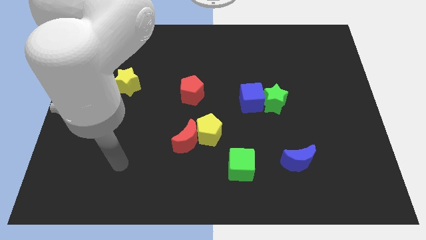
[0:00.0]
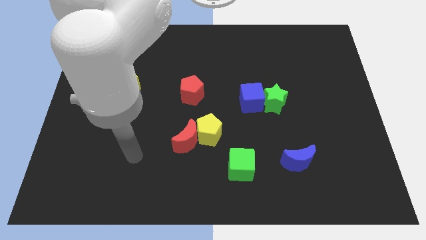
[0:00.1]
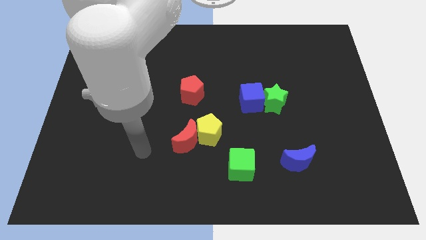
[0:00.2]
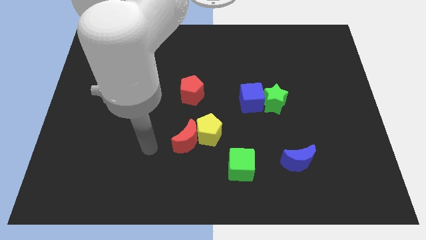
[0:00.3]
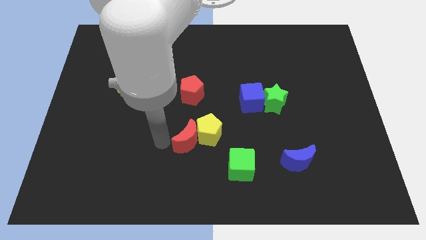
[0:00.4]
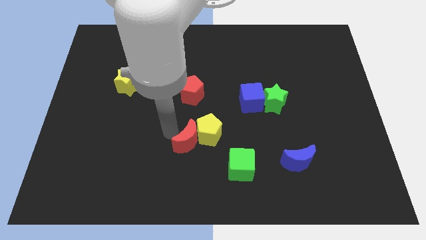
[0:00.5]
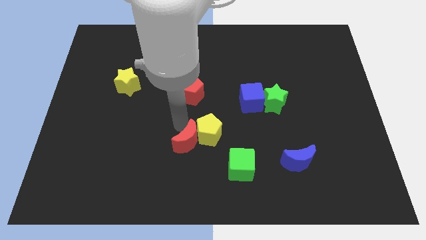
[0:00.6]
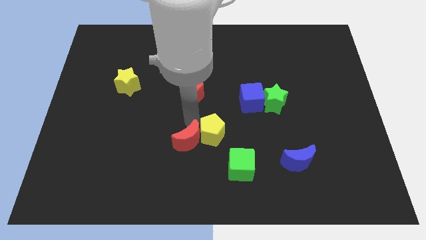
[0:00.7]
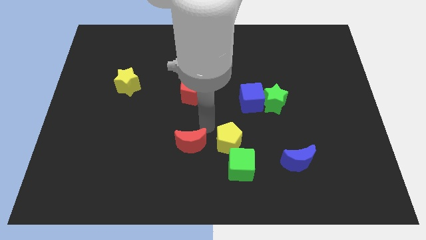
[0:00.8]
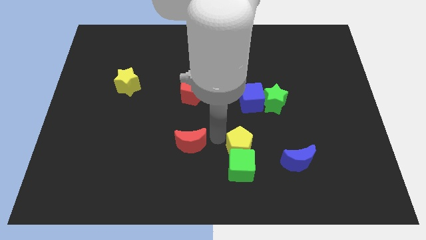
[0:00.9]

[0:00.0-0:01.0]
separate the red moon from the yellow pentagon

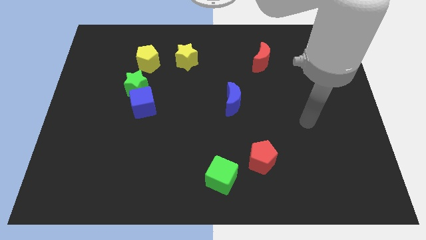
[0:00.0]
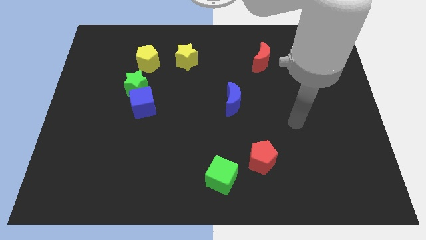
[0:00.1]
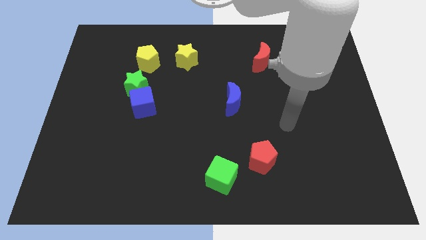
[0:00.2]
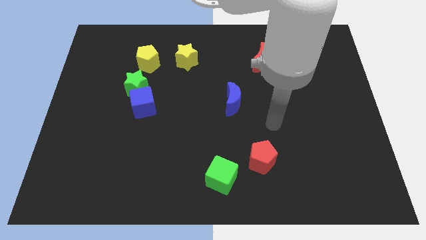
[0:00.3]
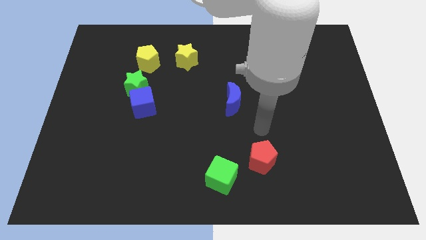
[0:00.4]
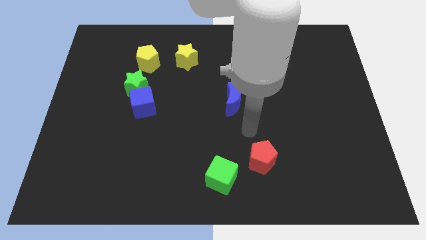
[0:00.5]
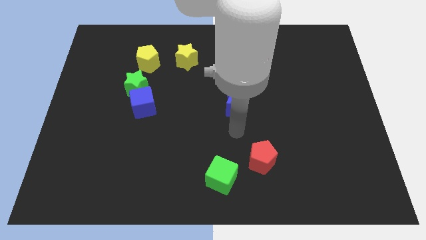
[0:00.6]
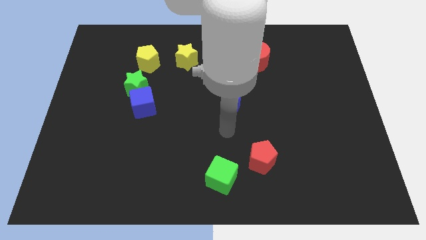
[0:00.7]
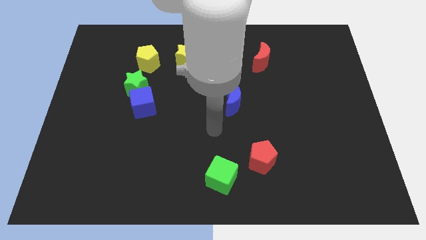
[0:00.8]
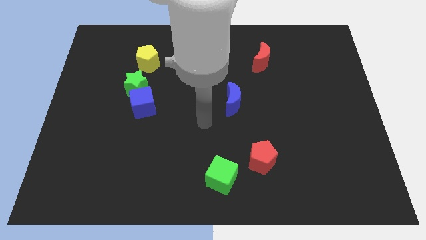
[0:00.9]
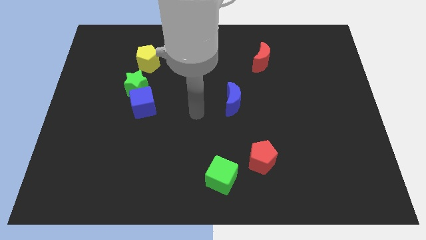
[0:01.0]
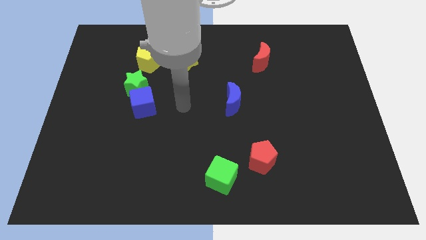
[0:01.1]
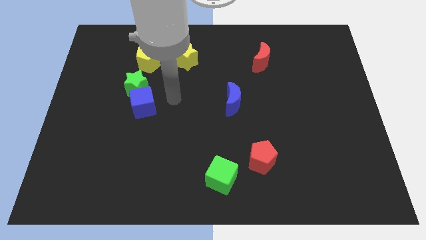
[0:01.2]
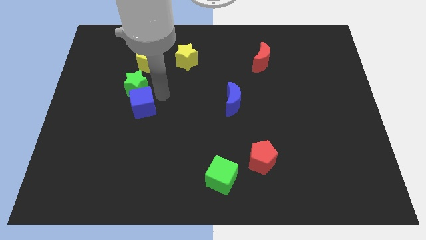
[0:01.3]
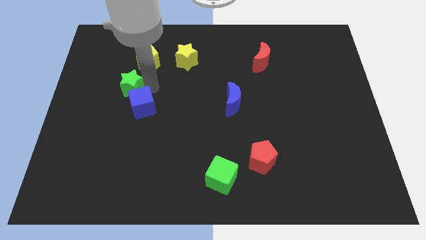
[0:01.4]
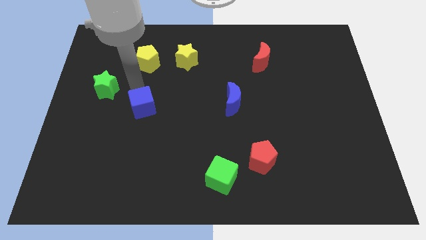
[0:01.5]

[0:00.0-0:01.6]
separate the blue cube from the green star

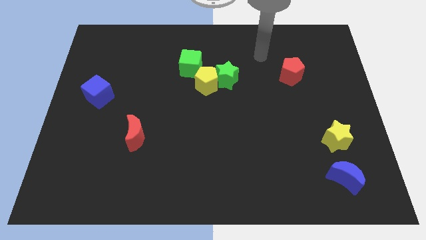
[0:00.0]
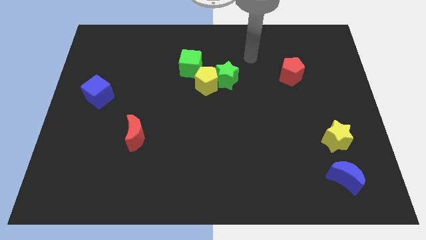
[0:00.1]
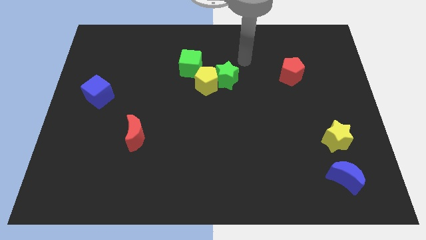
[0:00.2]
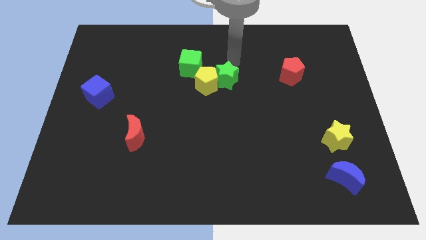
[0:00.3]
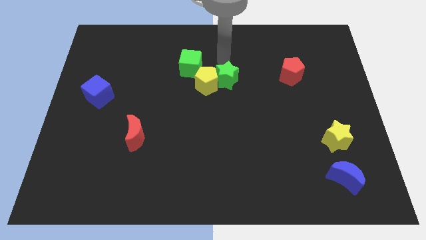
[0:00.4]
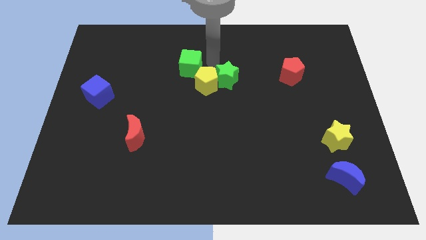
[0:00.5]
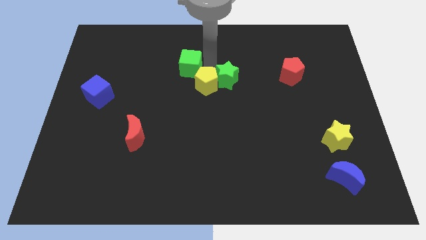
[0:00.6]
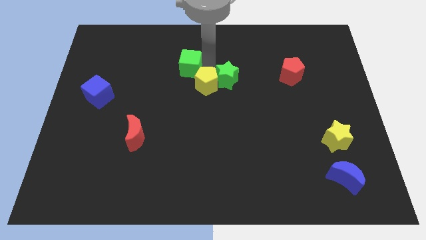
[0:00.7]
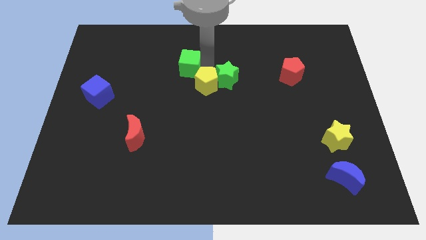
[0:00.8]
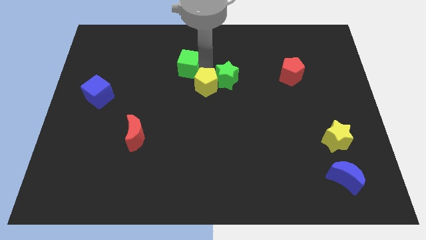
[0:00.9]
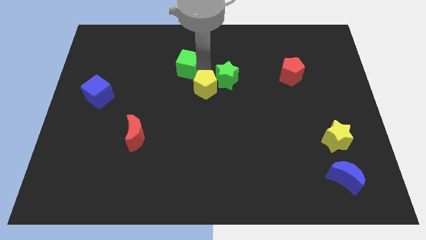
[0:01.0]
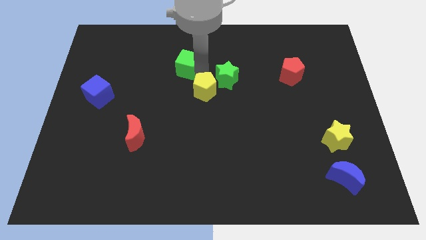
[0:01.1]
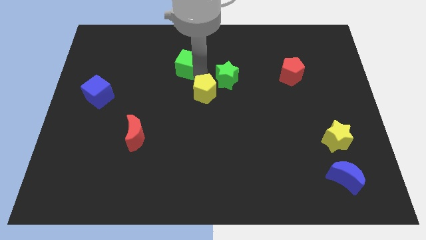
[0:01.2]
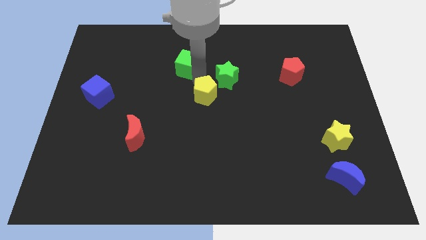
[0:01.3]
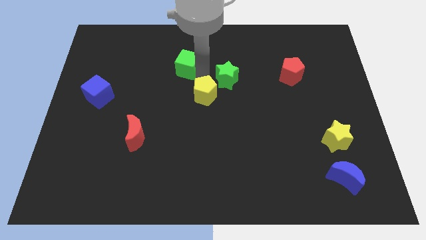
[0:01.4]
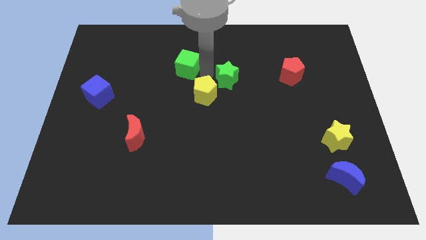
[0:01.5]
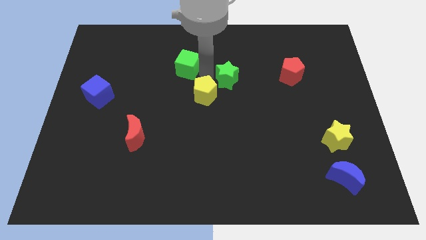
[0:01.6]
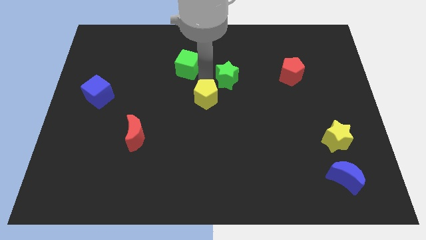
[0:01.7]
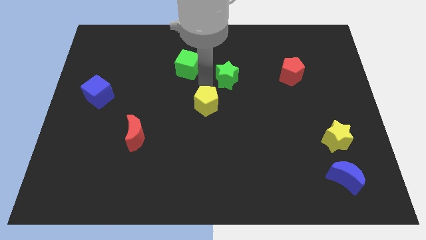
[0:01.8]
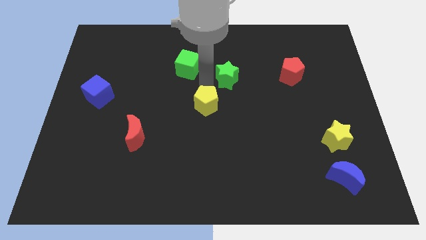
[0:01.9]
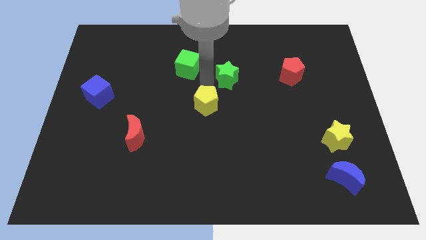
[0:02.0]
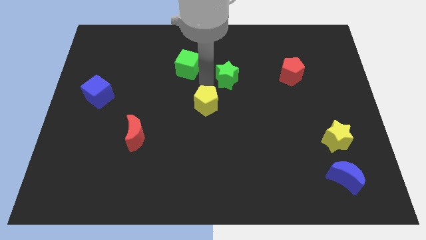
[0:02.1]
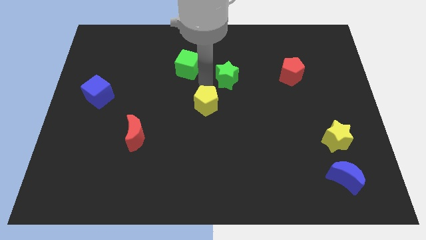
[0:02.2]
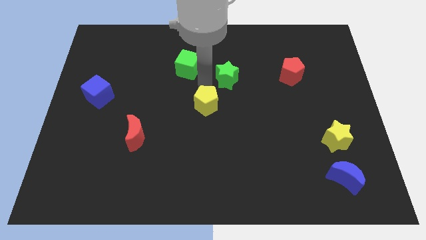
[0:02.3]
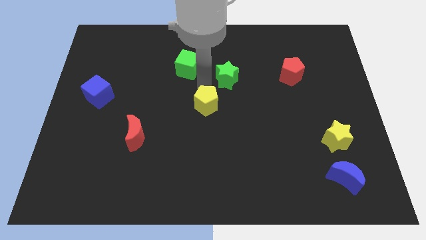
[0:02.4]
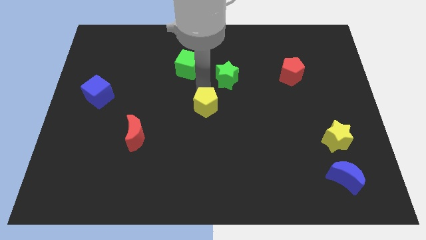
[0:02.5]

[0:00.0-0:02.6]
pull the yellow pentagon apart from the green star and green cube

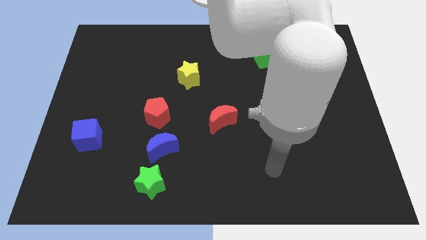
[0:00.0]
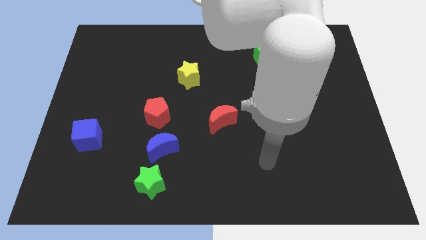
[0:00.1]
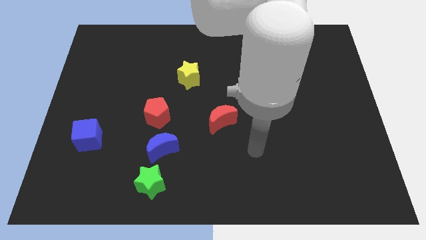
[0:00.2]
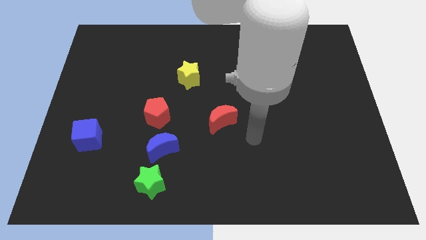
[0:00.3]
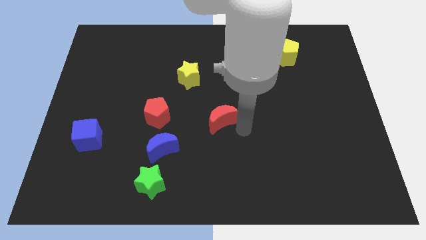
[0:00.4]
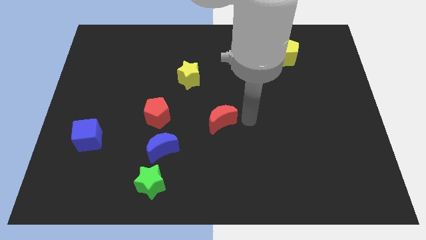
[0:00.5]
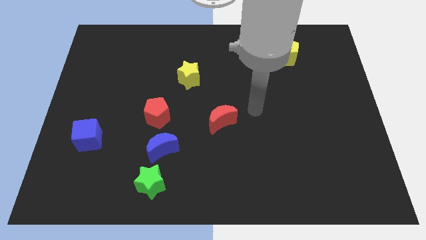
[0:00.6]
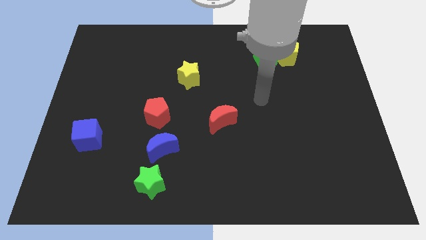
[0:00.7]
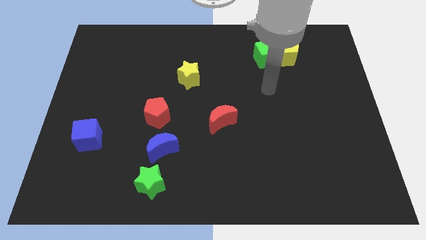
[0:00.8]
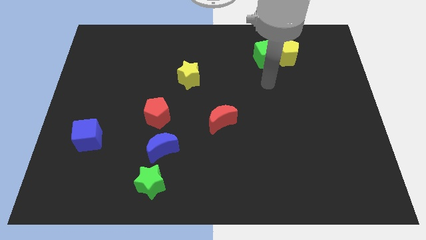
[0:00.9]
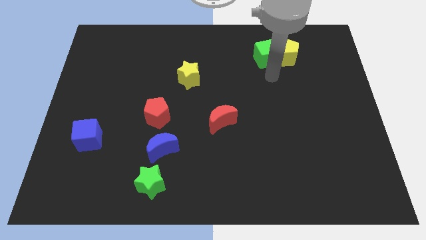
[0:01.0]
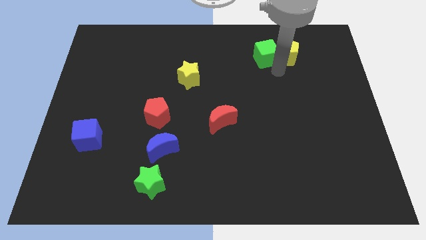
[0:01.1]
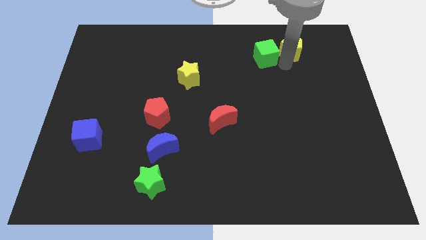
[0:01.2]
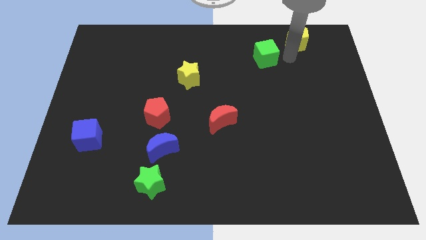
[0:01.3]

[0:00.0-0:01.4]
move the green cube away from the yellow pentagon

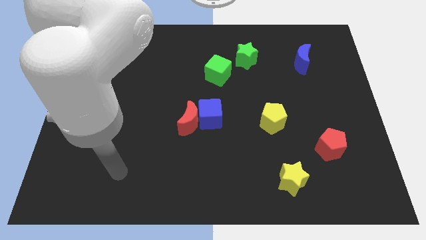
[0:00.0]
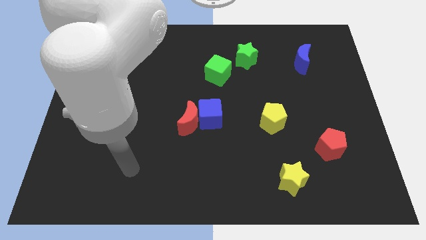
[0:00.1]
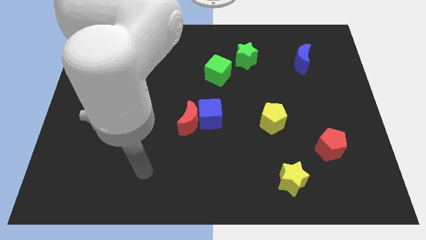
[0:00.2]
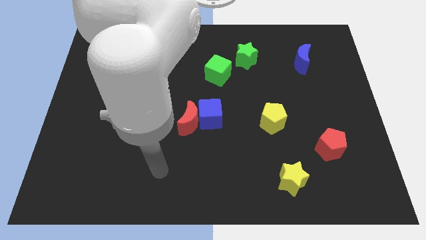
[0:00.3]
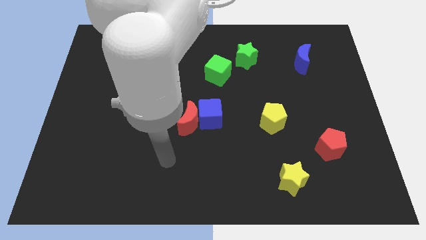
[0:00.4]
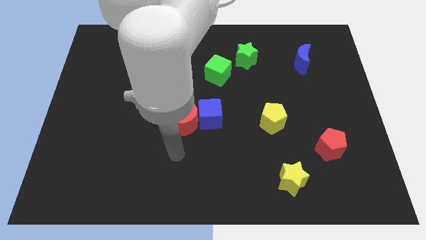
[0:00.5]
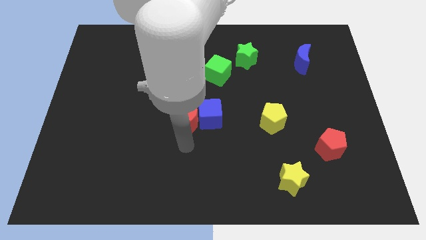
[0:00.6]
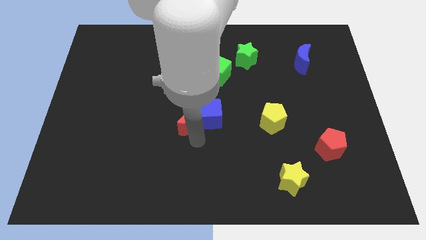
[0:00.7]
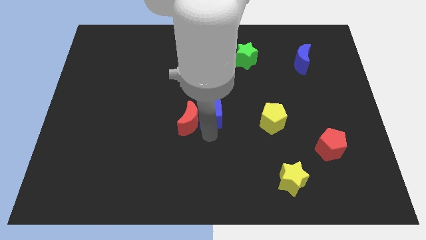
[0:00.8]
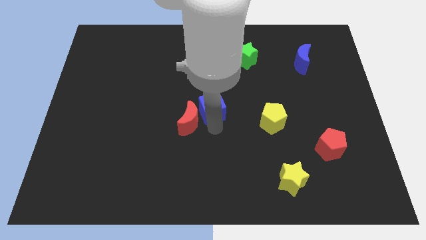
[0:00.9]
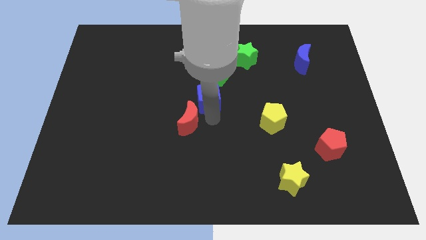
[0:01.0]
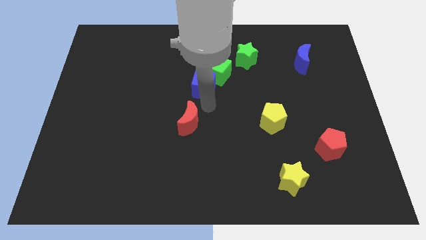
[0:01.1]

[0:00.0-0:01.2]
move the red moon away from the blue cube

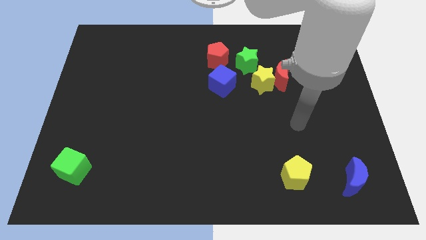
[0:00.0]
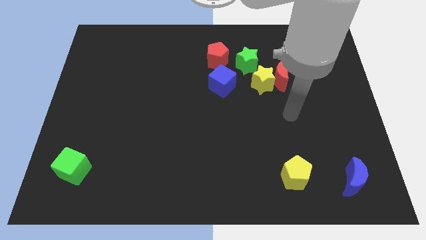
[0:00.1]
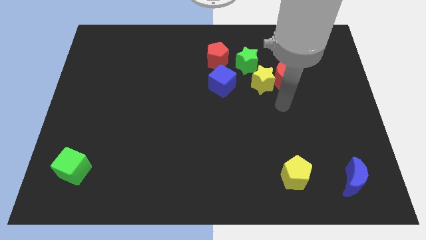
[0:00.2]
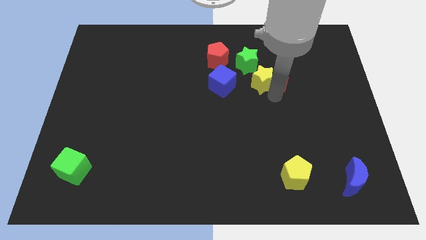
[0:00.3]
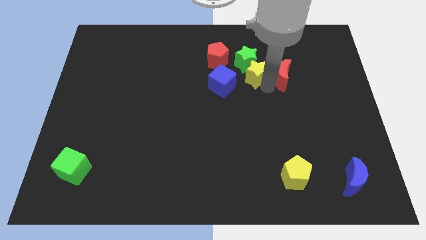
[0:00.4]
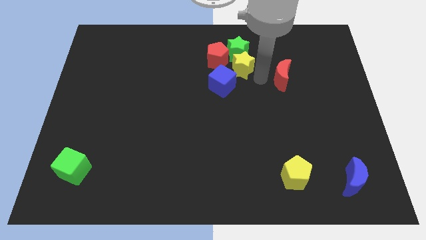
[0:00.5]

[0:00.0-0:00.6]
pull the red moon apart from the yellow star and green star

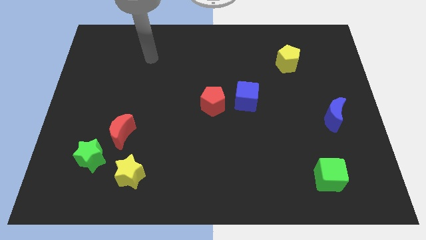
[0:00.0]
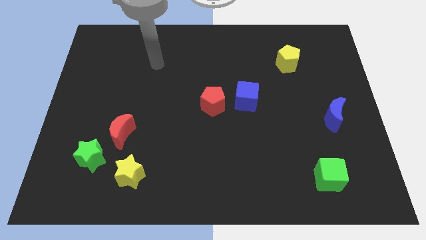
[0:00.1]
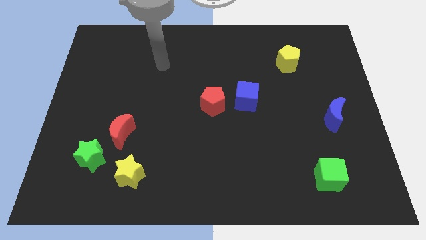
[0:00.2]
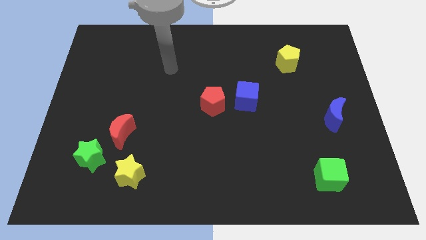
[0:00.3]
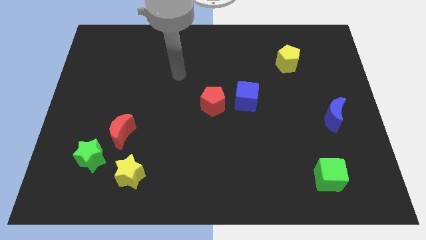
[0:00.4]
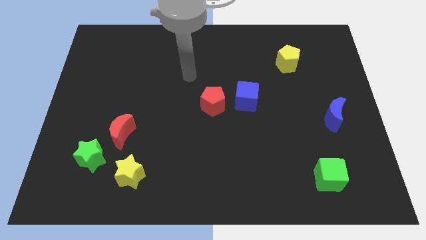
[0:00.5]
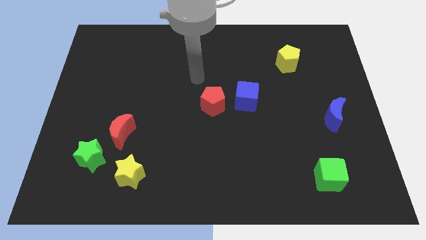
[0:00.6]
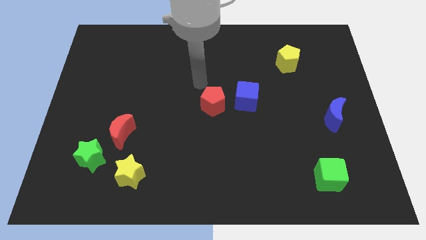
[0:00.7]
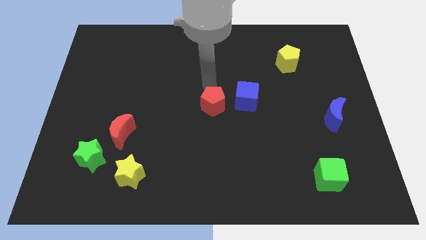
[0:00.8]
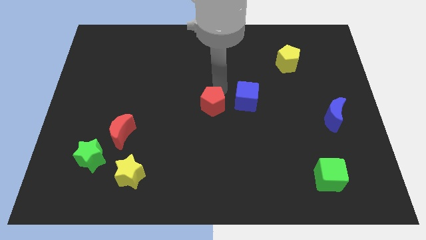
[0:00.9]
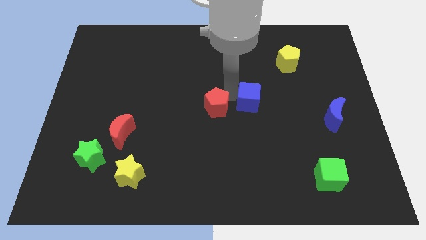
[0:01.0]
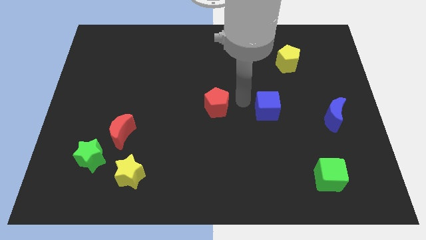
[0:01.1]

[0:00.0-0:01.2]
pull the red pentagon apart from the blue cube
